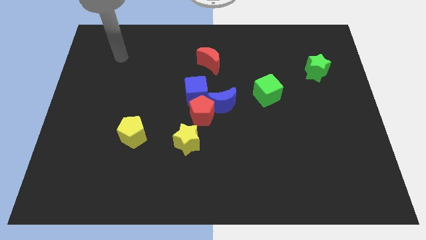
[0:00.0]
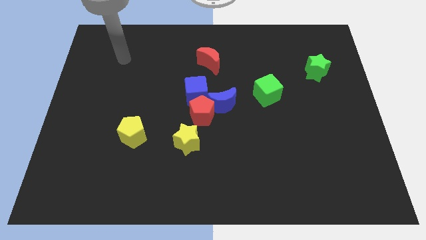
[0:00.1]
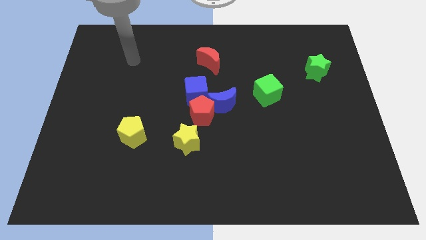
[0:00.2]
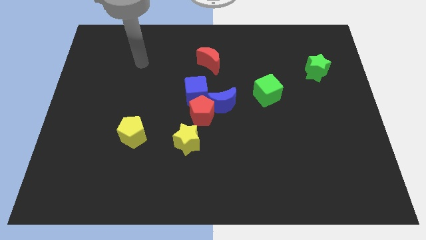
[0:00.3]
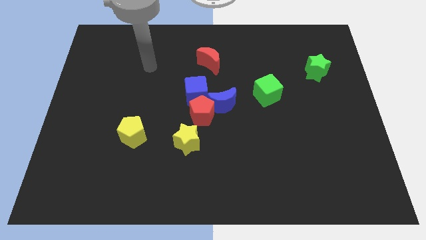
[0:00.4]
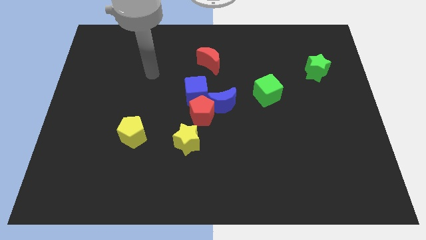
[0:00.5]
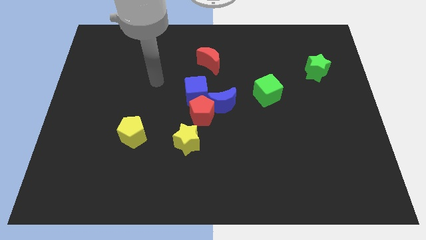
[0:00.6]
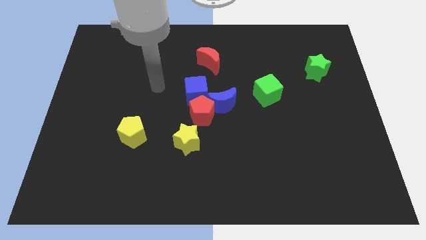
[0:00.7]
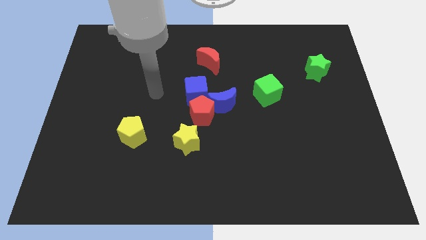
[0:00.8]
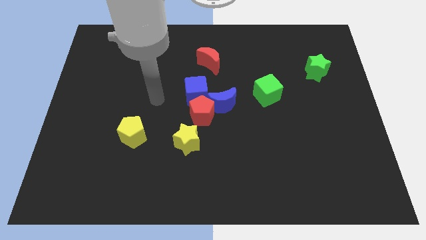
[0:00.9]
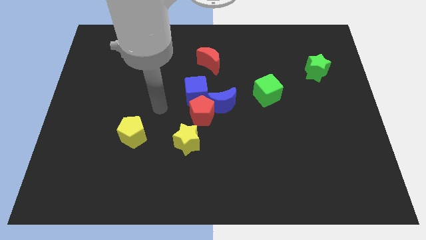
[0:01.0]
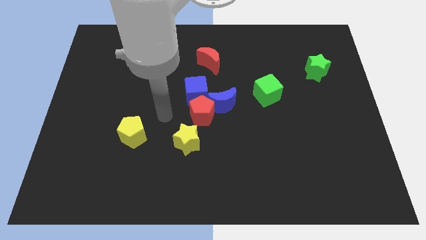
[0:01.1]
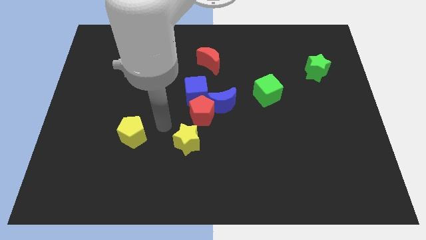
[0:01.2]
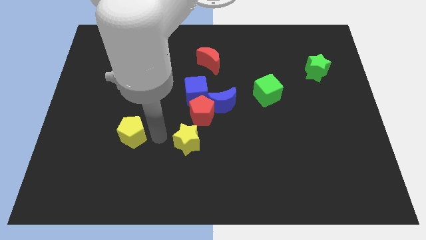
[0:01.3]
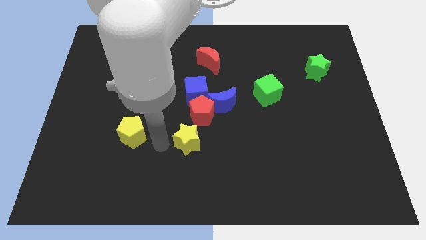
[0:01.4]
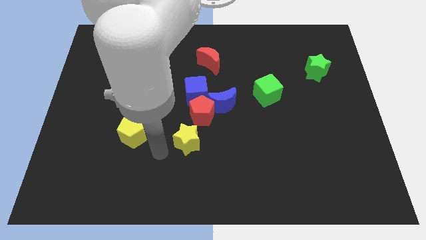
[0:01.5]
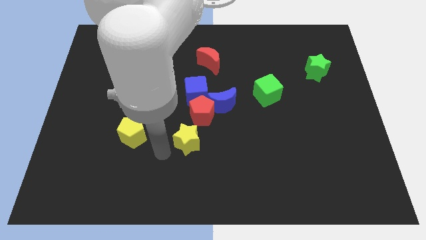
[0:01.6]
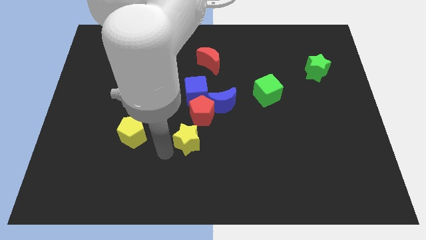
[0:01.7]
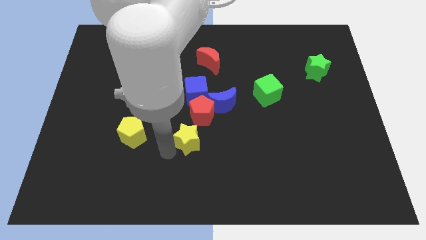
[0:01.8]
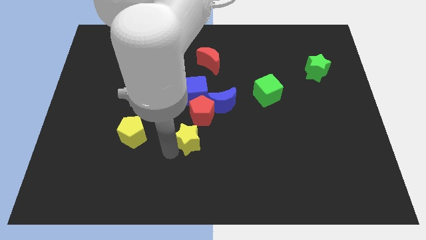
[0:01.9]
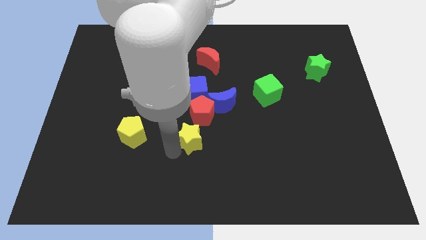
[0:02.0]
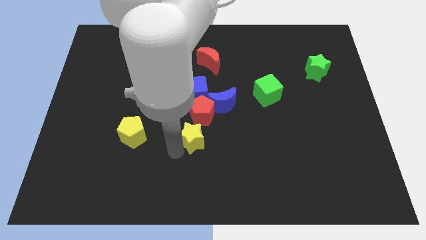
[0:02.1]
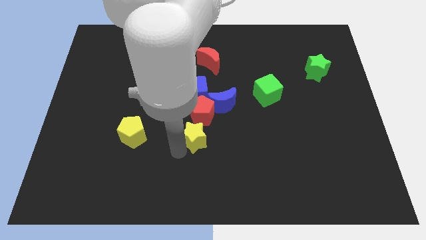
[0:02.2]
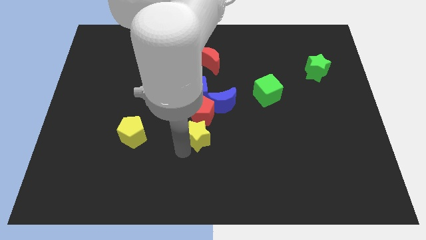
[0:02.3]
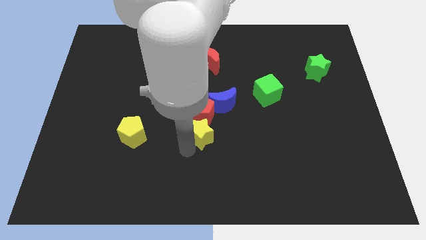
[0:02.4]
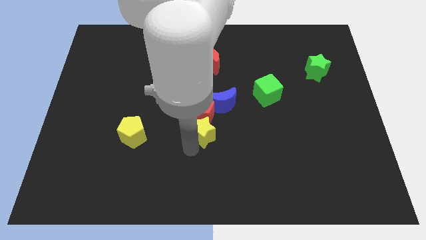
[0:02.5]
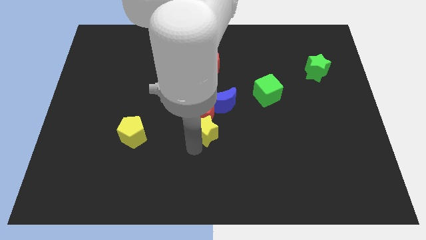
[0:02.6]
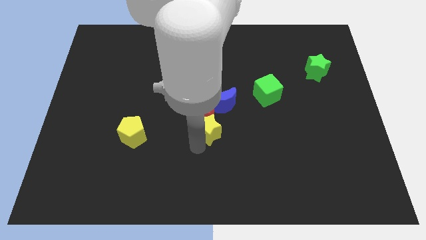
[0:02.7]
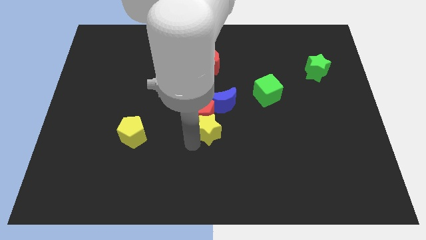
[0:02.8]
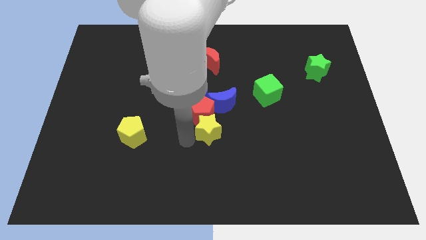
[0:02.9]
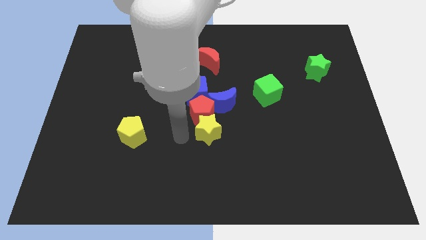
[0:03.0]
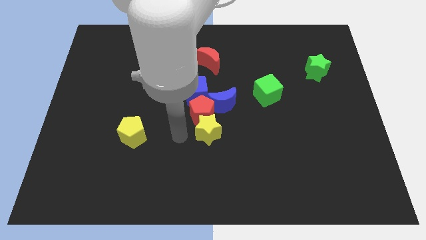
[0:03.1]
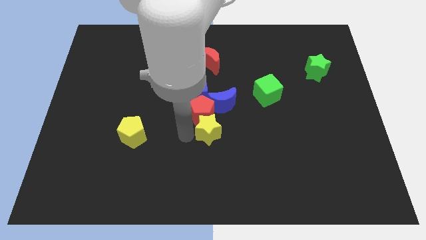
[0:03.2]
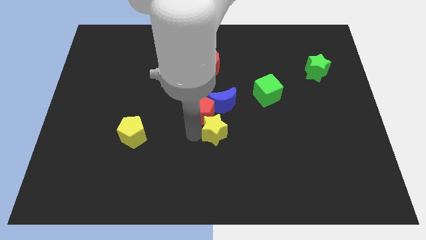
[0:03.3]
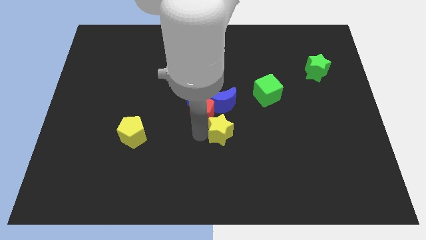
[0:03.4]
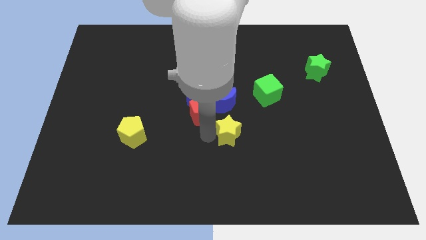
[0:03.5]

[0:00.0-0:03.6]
slightly move the yellow star upwards and to the right diagonally

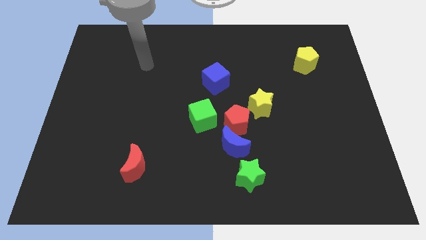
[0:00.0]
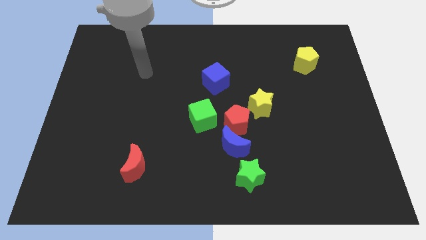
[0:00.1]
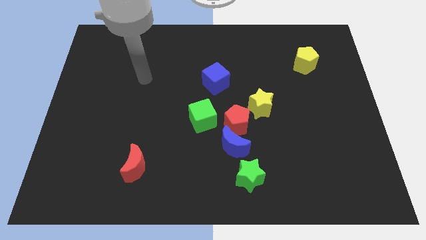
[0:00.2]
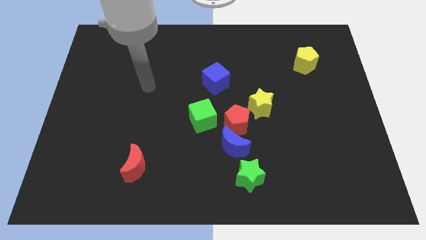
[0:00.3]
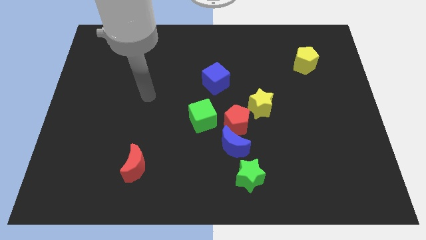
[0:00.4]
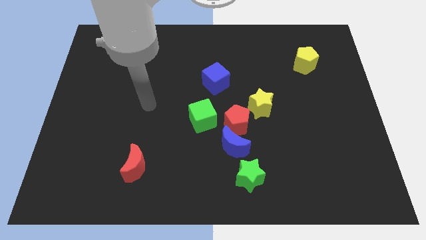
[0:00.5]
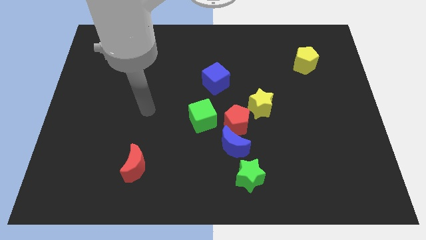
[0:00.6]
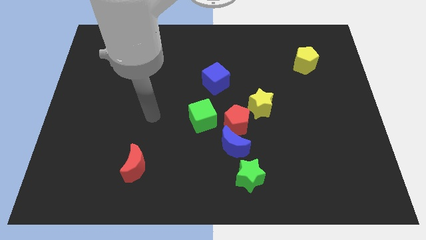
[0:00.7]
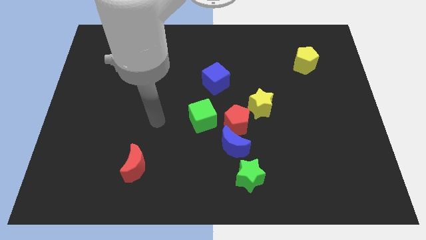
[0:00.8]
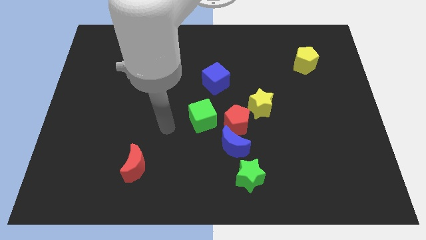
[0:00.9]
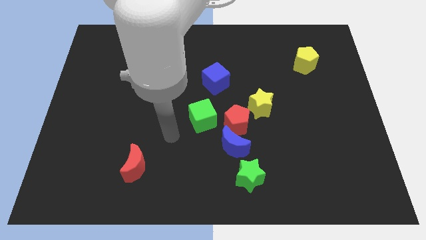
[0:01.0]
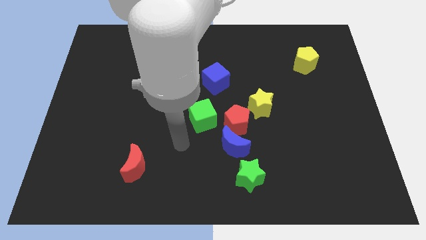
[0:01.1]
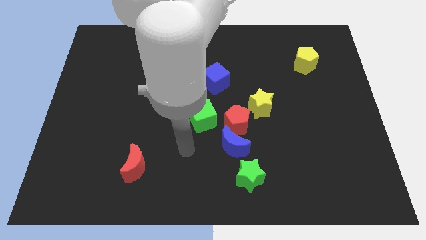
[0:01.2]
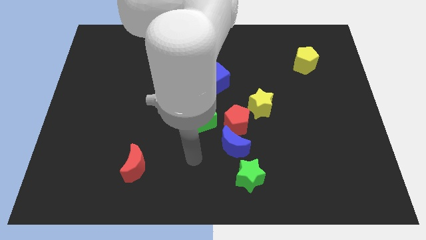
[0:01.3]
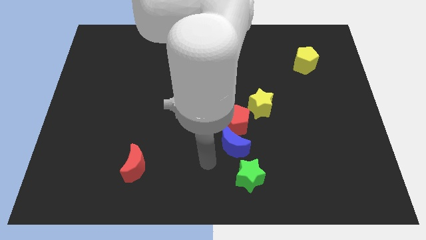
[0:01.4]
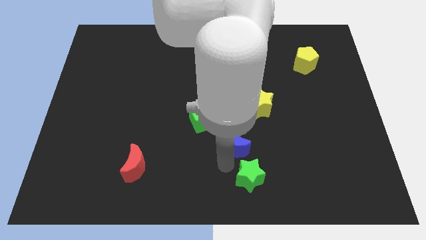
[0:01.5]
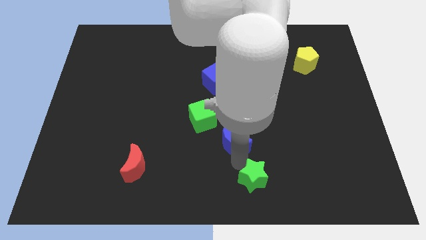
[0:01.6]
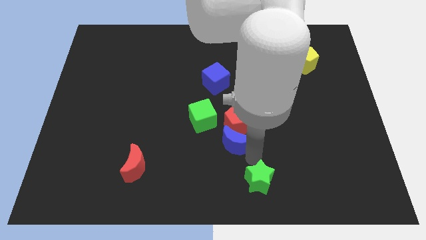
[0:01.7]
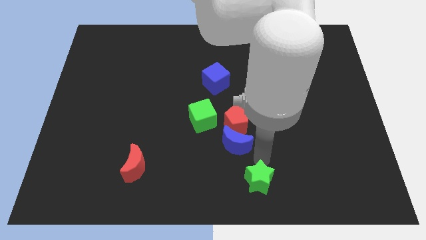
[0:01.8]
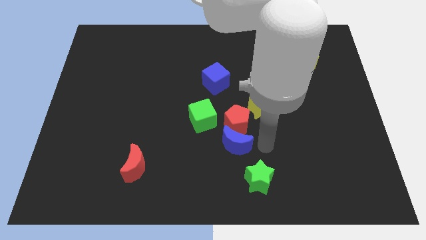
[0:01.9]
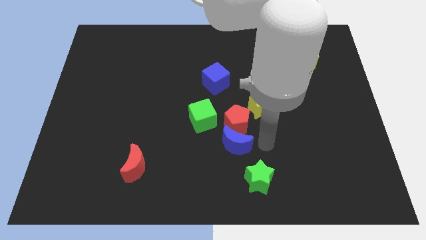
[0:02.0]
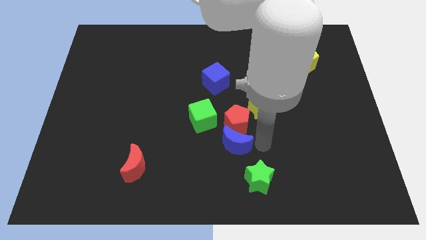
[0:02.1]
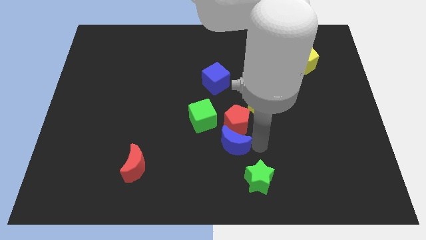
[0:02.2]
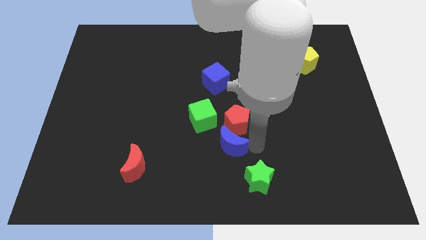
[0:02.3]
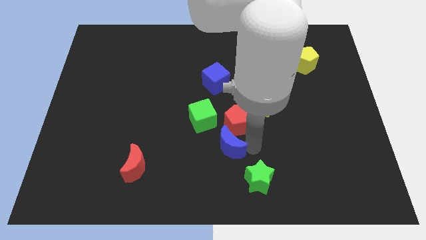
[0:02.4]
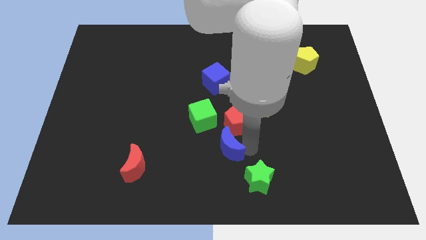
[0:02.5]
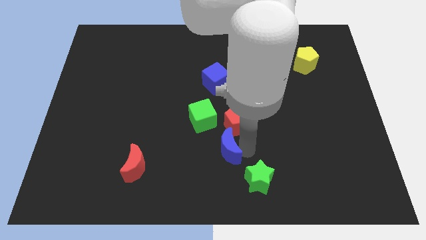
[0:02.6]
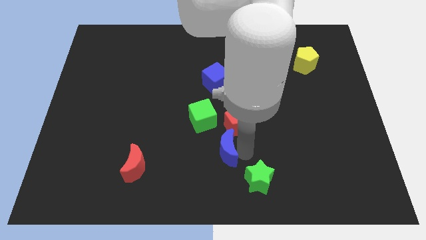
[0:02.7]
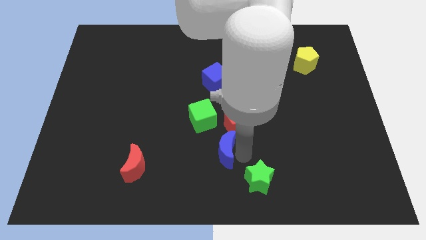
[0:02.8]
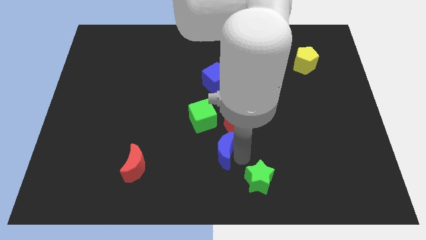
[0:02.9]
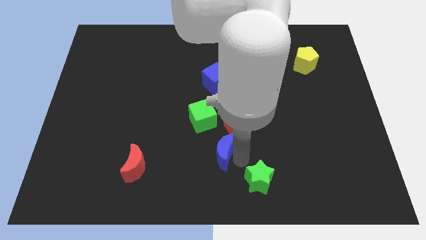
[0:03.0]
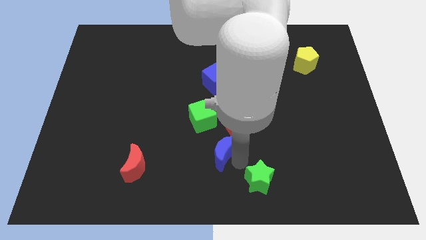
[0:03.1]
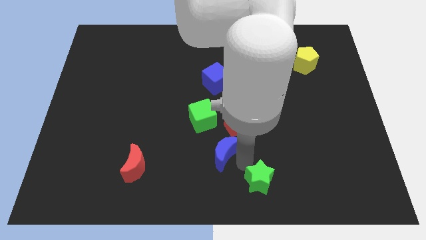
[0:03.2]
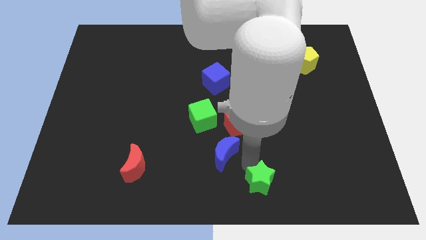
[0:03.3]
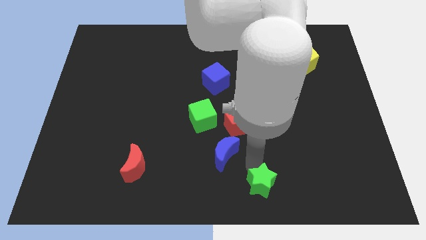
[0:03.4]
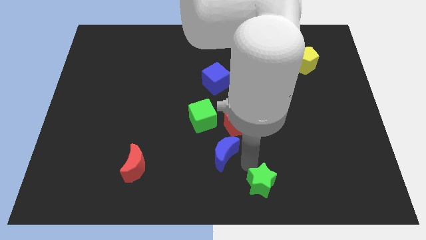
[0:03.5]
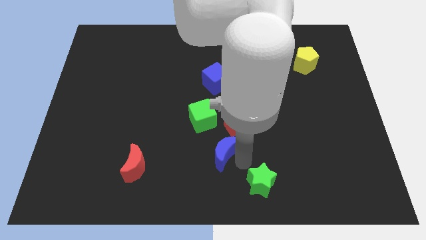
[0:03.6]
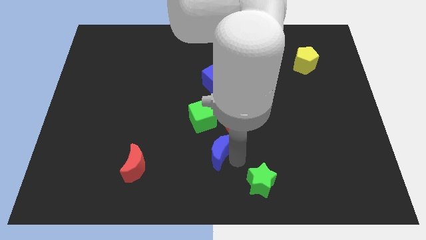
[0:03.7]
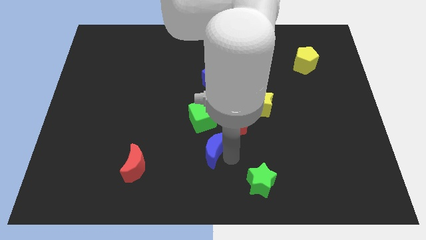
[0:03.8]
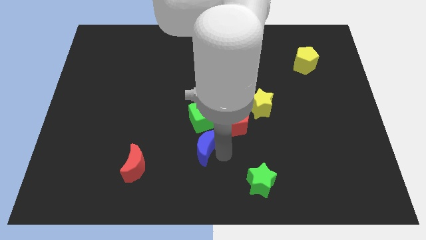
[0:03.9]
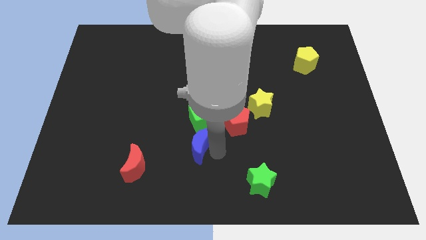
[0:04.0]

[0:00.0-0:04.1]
move the blue moon a bit left

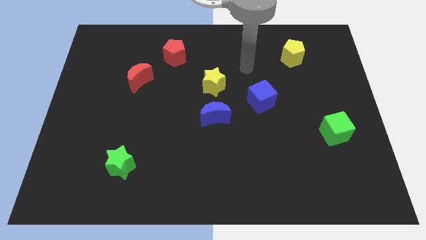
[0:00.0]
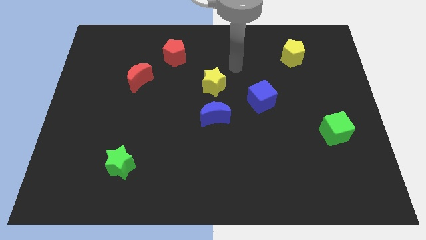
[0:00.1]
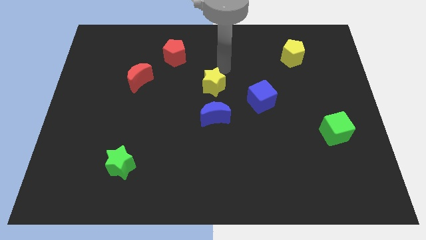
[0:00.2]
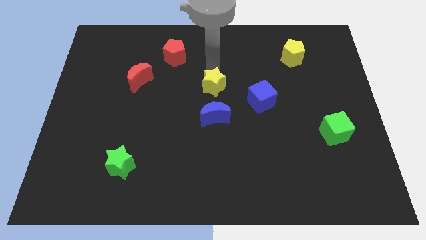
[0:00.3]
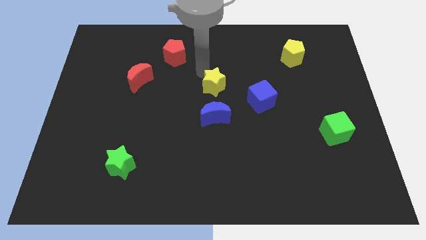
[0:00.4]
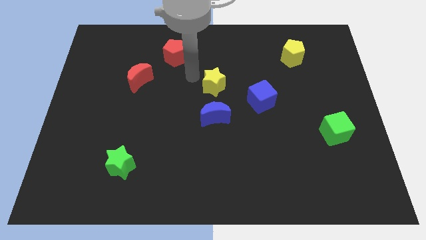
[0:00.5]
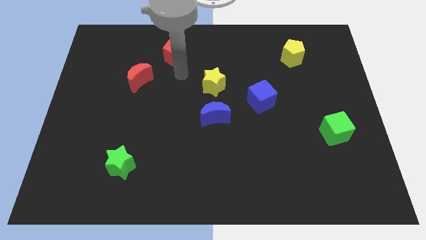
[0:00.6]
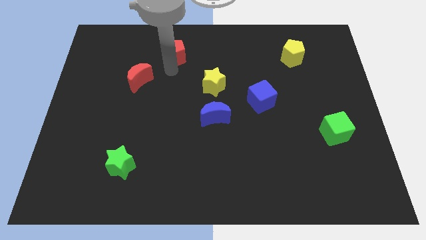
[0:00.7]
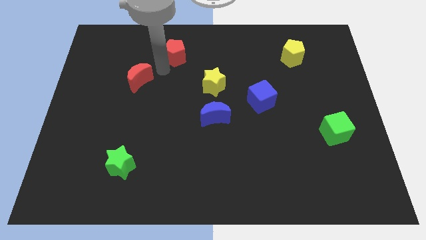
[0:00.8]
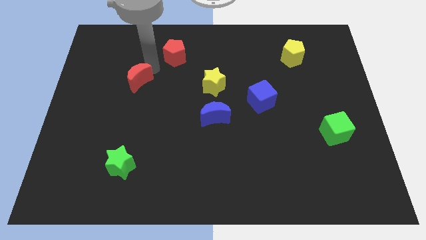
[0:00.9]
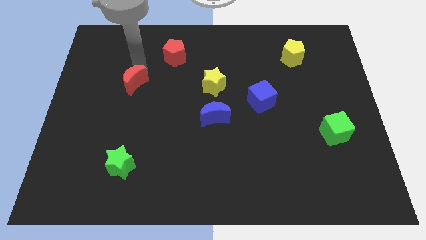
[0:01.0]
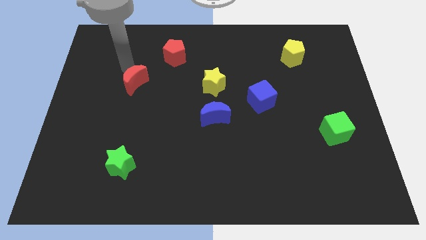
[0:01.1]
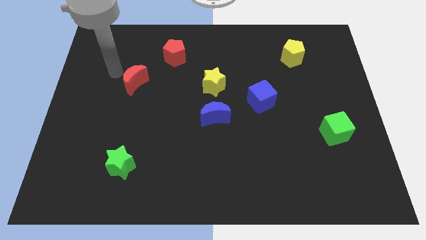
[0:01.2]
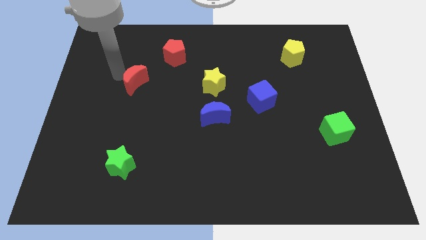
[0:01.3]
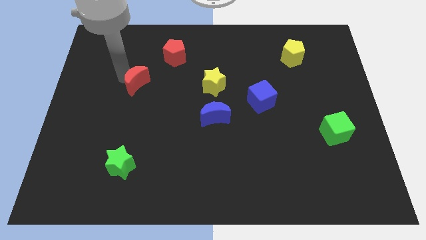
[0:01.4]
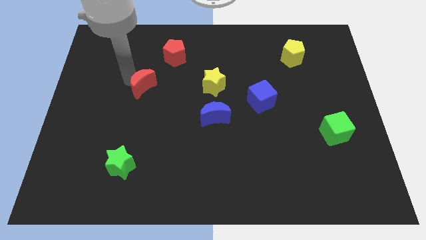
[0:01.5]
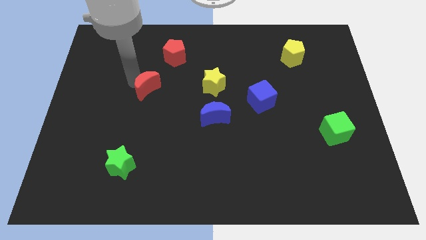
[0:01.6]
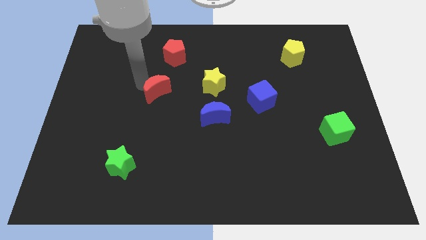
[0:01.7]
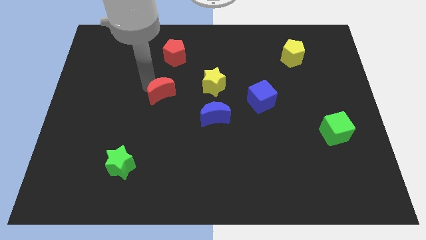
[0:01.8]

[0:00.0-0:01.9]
move the red moon diagonally down and to the right a bit
